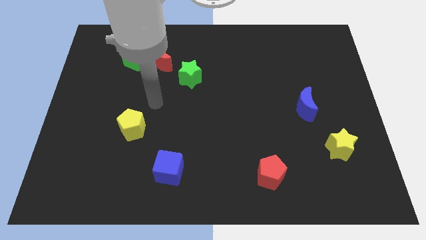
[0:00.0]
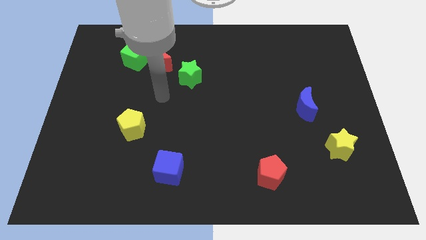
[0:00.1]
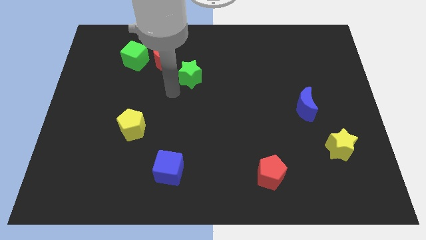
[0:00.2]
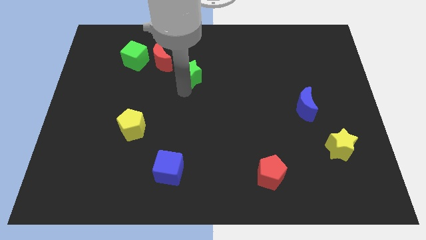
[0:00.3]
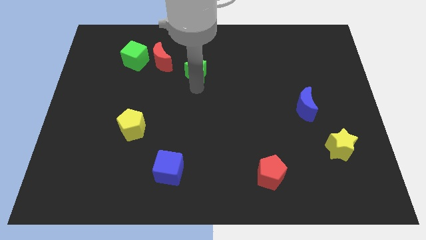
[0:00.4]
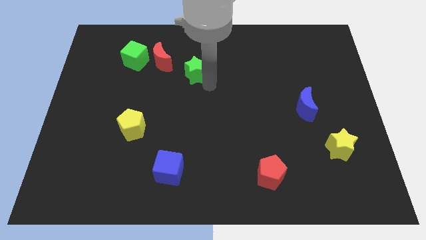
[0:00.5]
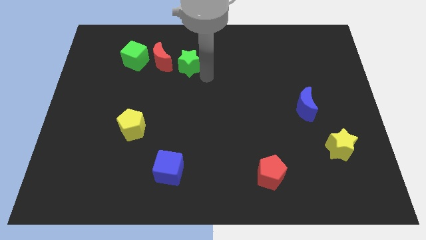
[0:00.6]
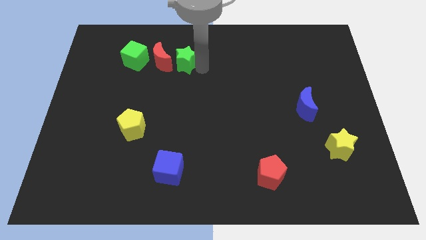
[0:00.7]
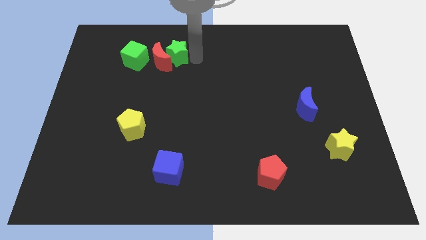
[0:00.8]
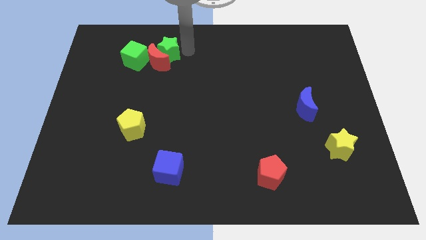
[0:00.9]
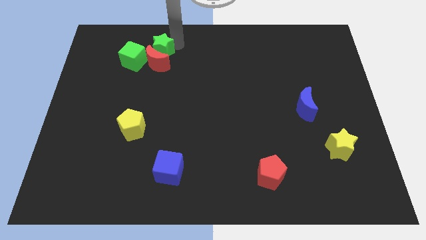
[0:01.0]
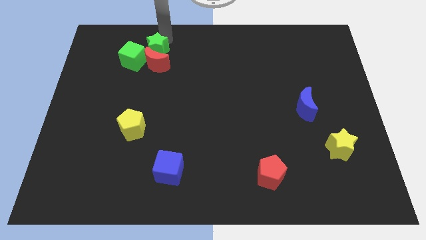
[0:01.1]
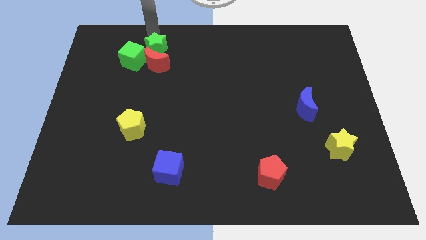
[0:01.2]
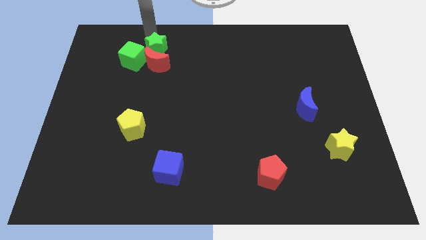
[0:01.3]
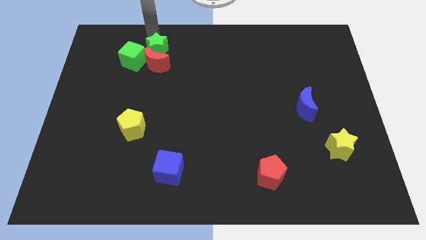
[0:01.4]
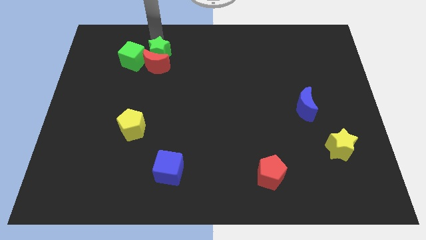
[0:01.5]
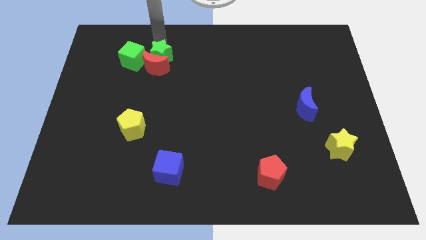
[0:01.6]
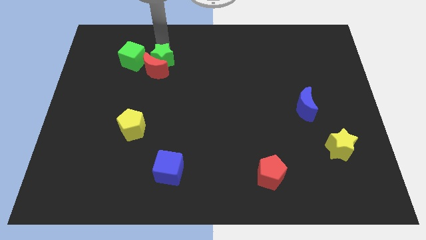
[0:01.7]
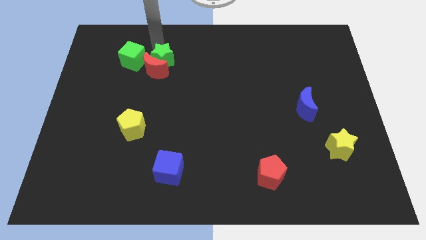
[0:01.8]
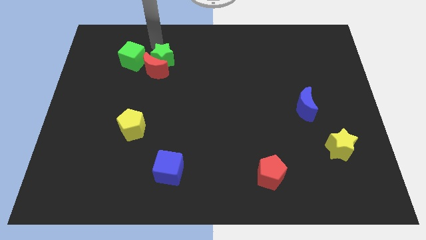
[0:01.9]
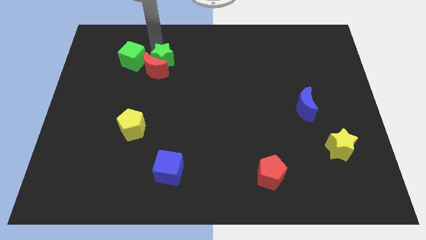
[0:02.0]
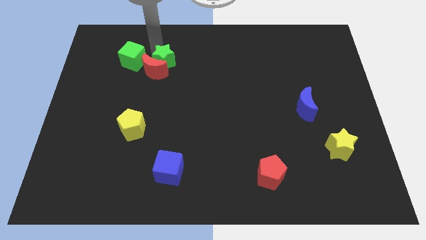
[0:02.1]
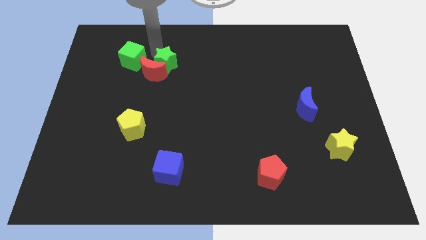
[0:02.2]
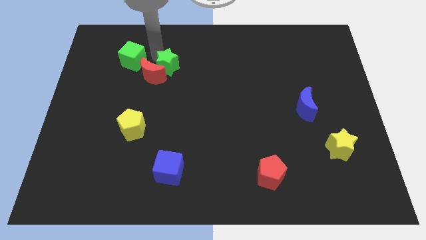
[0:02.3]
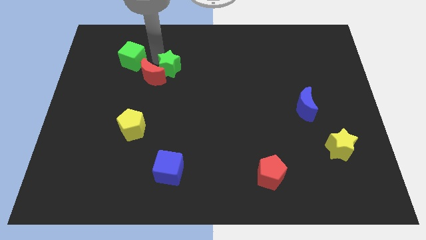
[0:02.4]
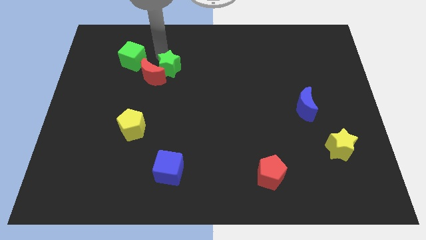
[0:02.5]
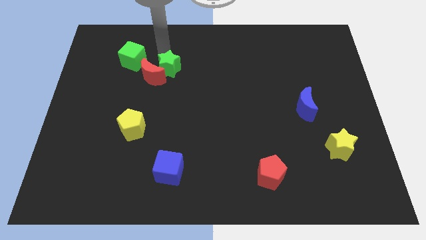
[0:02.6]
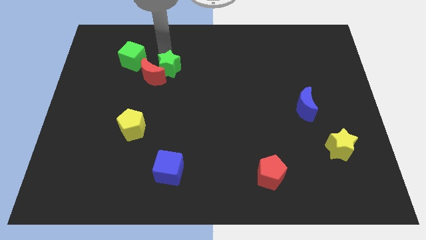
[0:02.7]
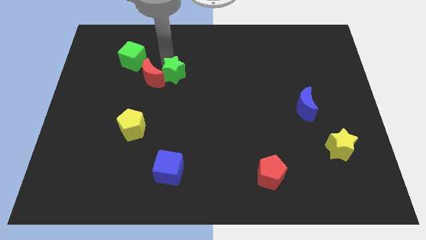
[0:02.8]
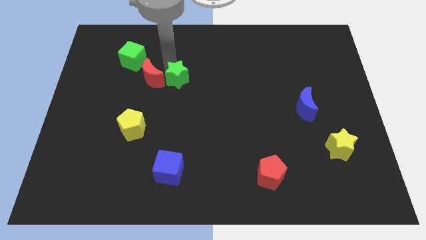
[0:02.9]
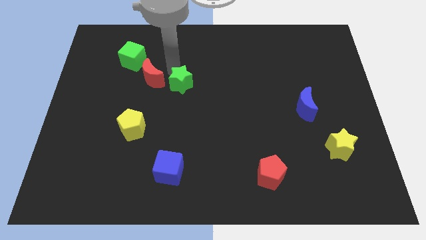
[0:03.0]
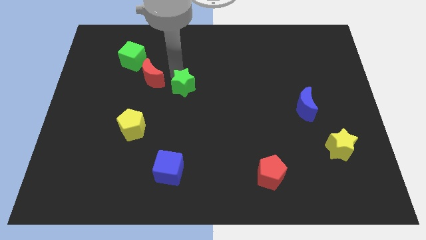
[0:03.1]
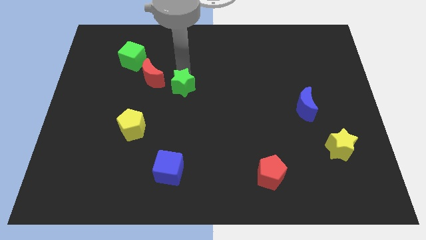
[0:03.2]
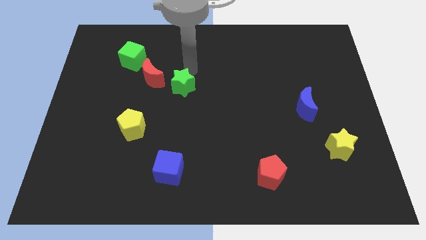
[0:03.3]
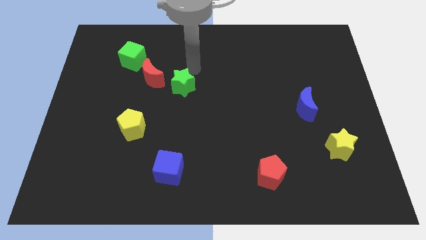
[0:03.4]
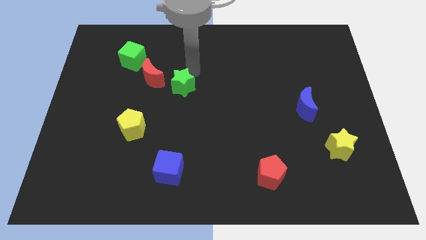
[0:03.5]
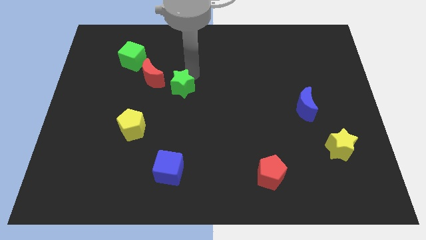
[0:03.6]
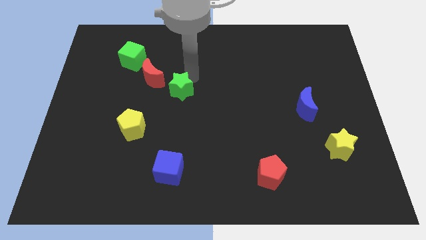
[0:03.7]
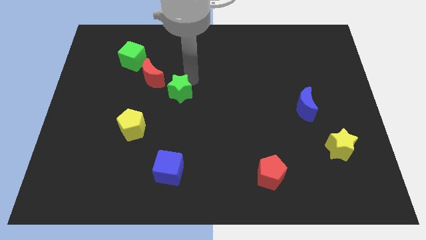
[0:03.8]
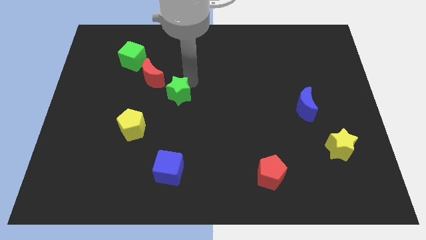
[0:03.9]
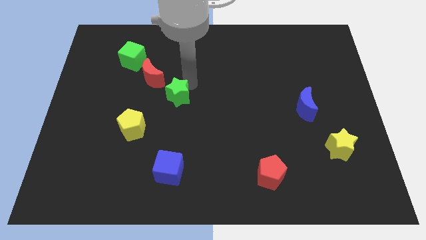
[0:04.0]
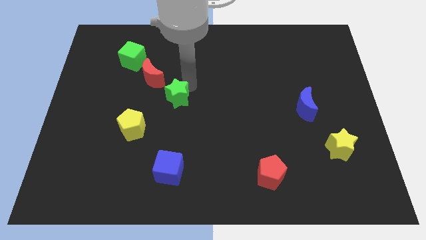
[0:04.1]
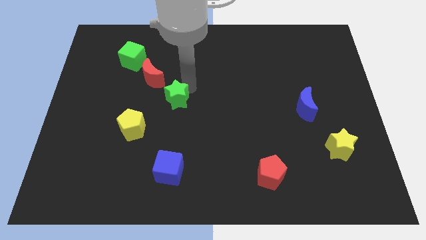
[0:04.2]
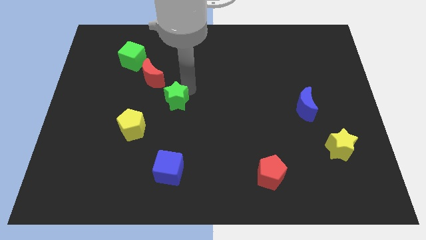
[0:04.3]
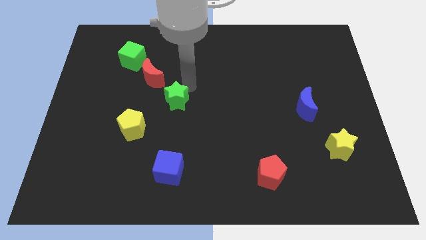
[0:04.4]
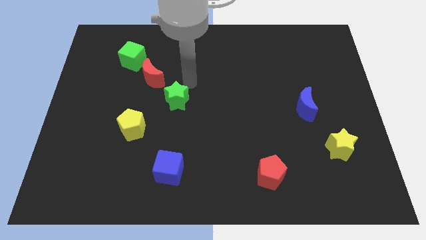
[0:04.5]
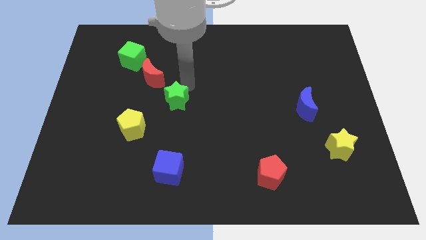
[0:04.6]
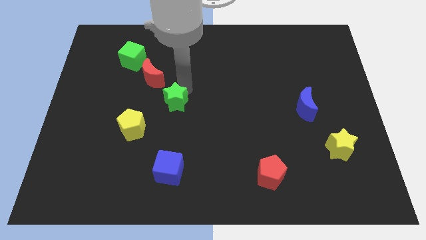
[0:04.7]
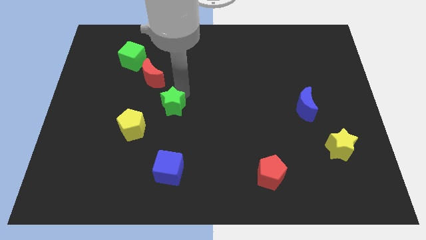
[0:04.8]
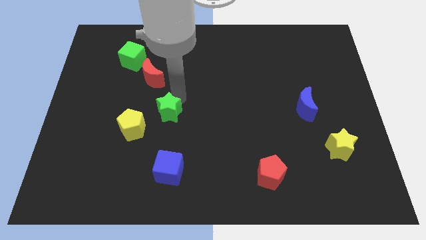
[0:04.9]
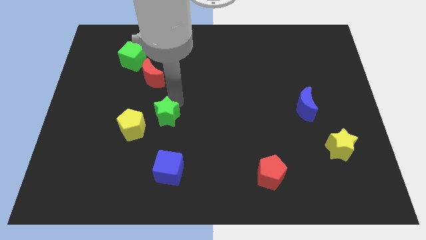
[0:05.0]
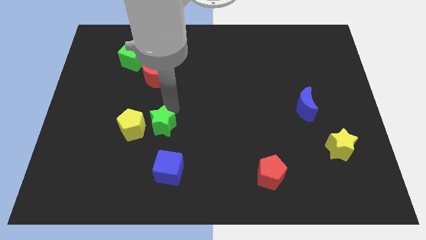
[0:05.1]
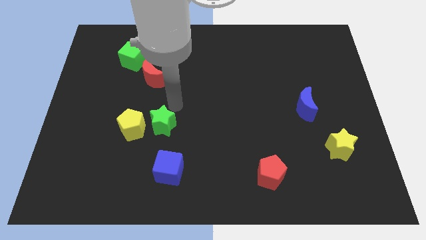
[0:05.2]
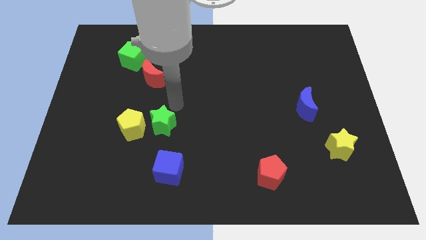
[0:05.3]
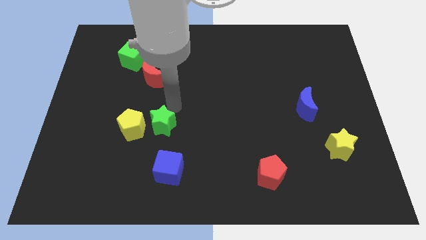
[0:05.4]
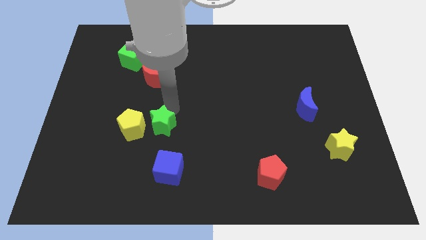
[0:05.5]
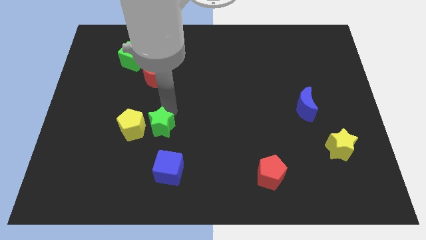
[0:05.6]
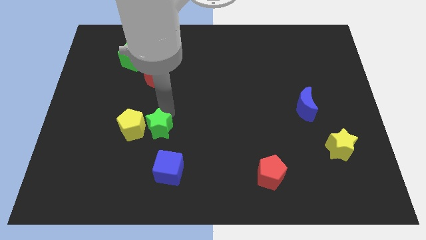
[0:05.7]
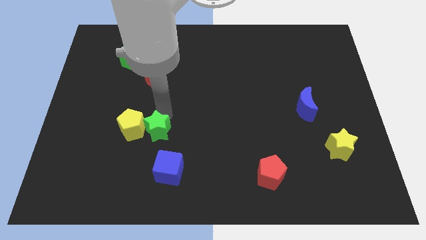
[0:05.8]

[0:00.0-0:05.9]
slide the green star to the top left side of the blue cube
